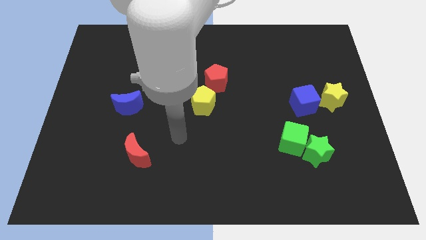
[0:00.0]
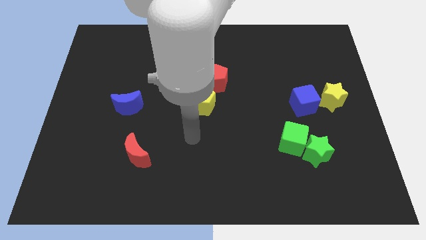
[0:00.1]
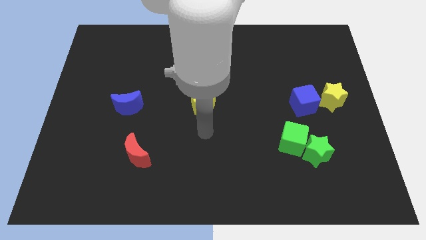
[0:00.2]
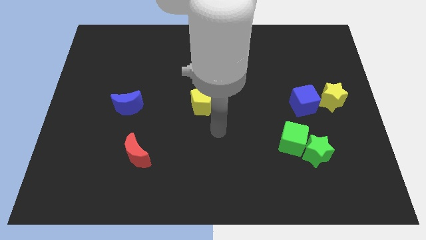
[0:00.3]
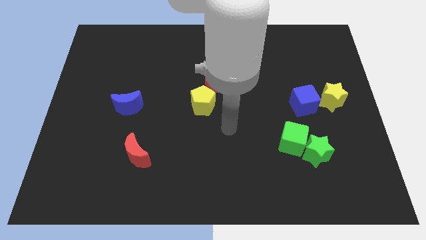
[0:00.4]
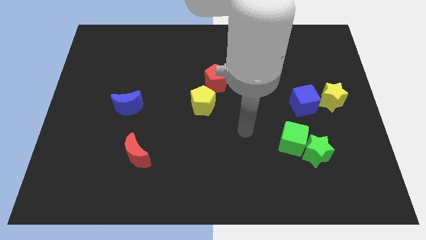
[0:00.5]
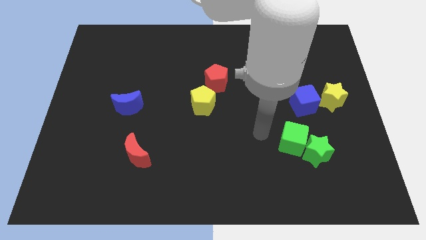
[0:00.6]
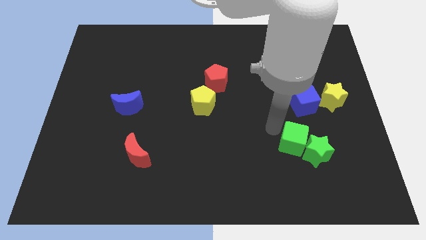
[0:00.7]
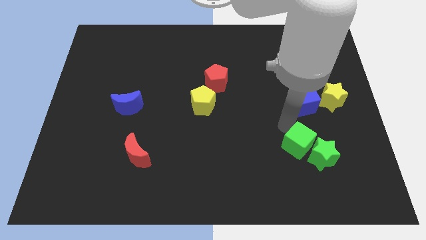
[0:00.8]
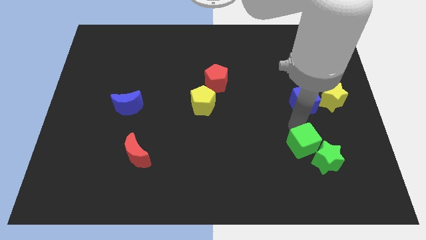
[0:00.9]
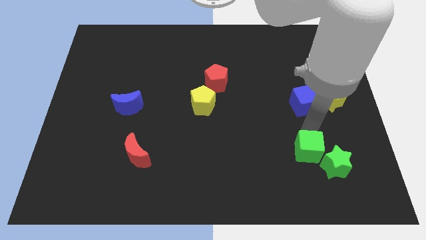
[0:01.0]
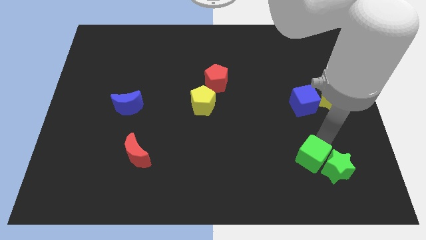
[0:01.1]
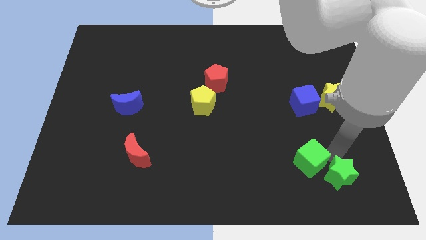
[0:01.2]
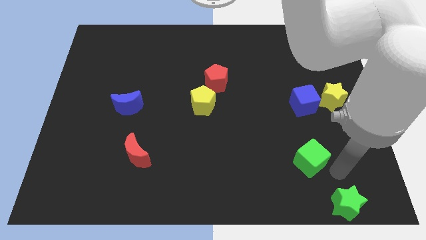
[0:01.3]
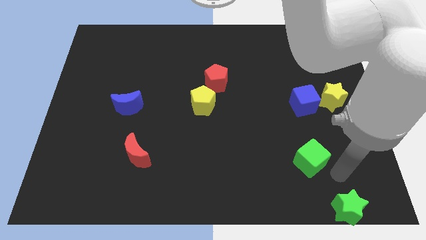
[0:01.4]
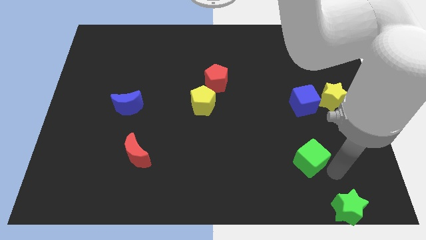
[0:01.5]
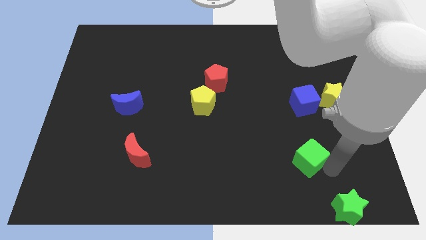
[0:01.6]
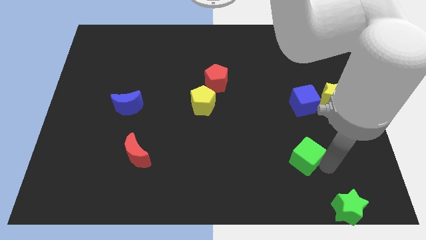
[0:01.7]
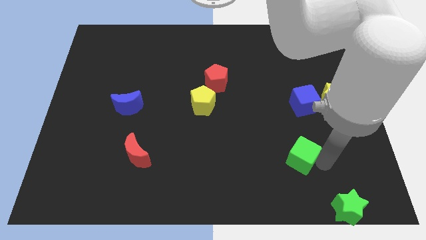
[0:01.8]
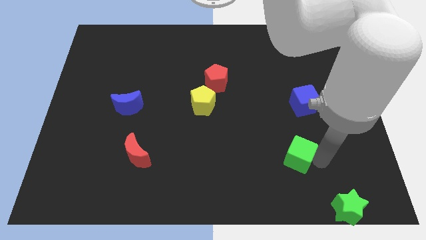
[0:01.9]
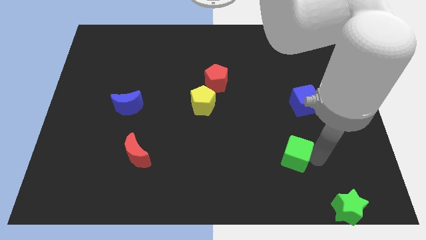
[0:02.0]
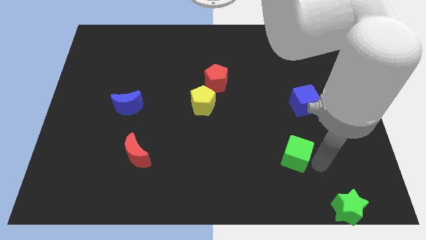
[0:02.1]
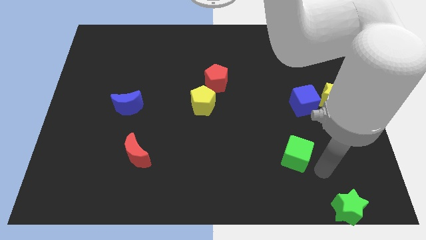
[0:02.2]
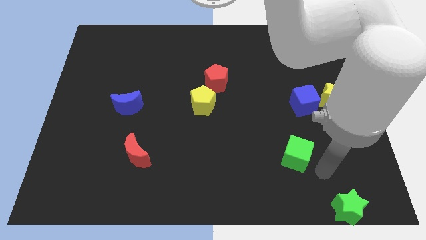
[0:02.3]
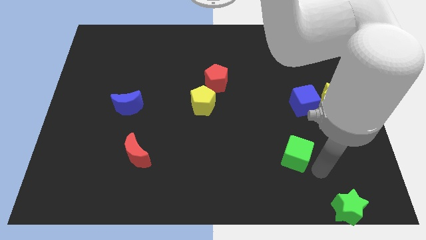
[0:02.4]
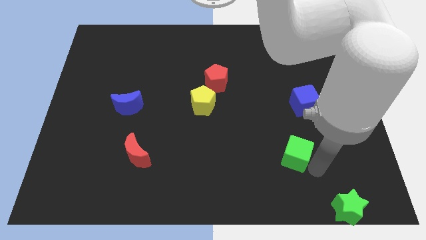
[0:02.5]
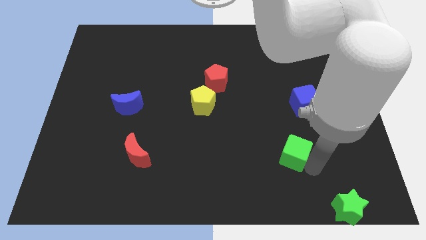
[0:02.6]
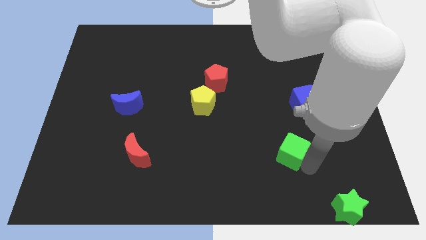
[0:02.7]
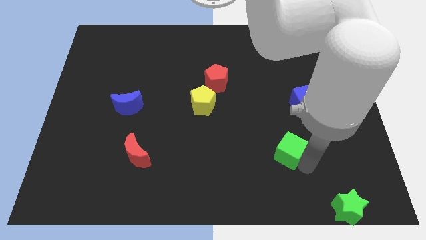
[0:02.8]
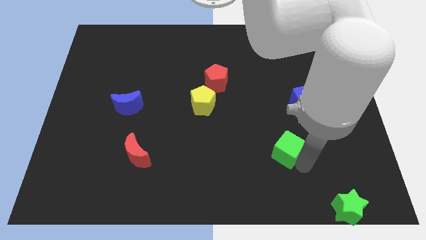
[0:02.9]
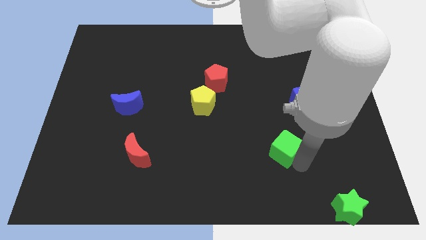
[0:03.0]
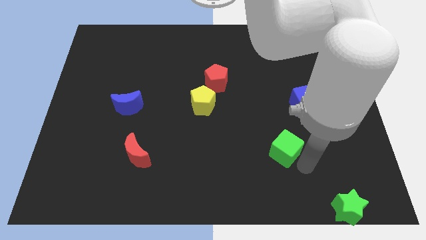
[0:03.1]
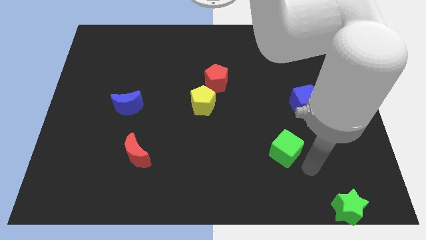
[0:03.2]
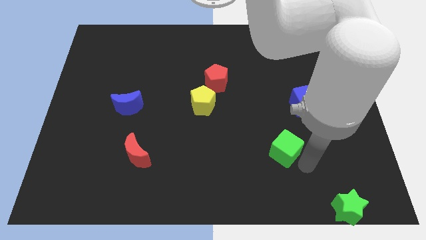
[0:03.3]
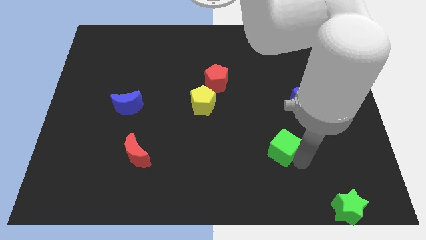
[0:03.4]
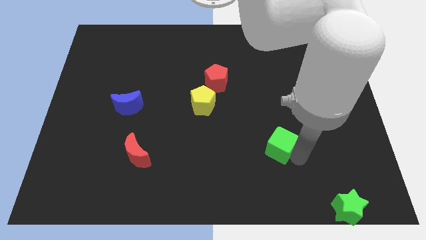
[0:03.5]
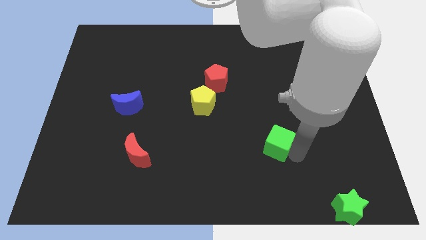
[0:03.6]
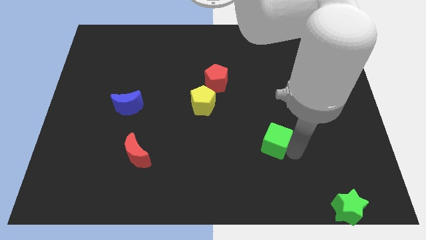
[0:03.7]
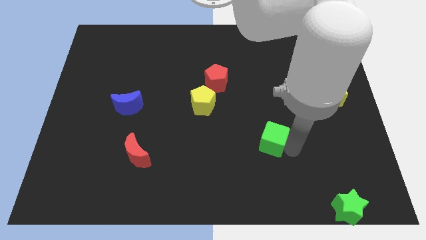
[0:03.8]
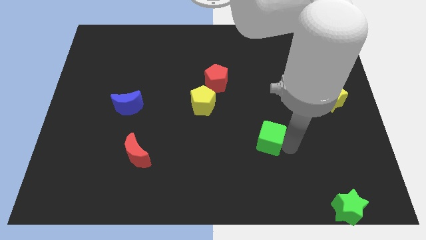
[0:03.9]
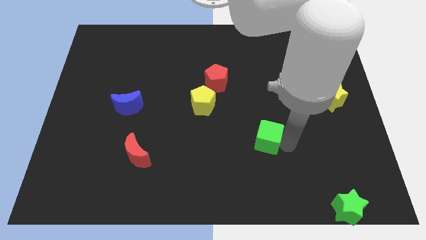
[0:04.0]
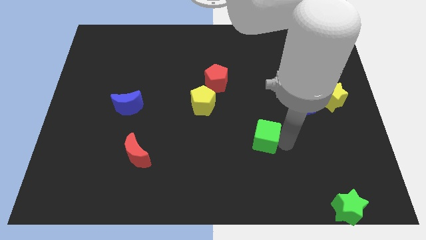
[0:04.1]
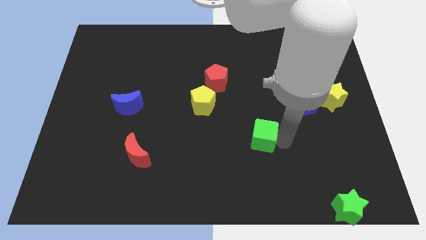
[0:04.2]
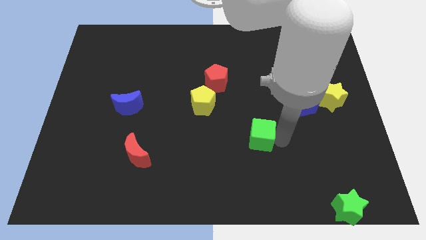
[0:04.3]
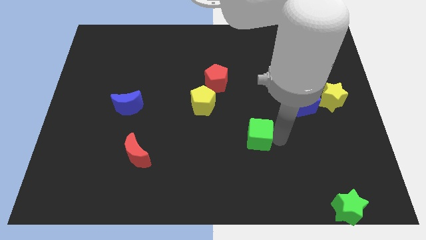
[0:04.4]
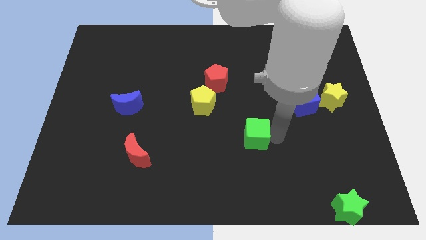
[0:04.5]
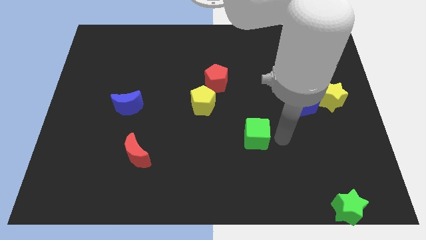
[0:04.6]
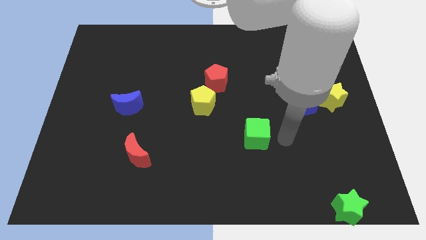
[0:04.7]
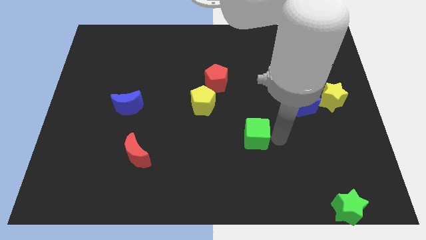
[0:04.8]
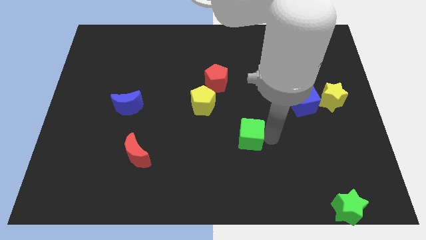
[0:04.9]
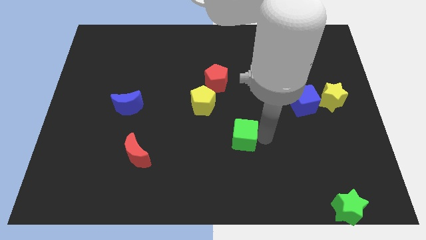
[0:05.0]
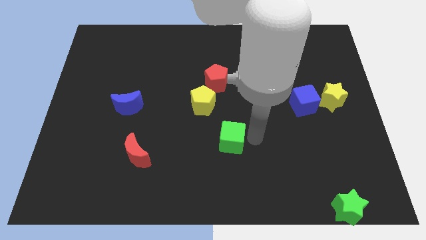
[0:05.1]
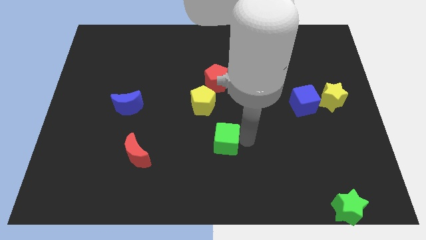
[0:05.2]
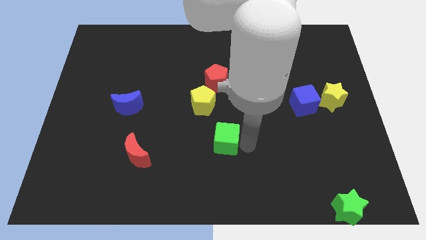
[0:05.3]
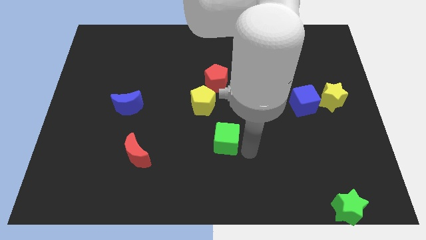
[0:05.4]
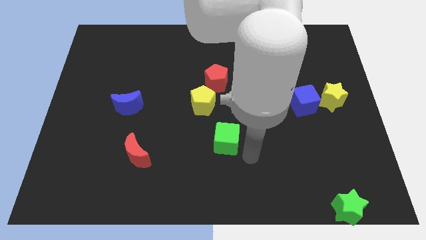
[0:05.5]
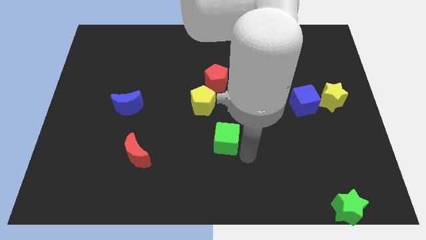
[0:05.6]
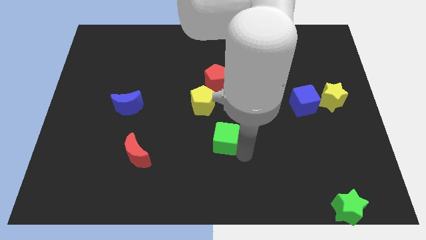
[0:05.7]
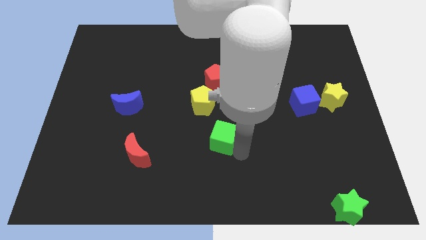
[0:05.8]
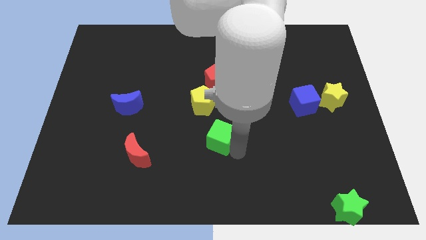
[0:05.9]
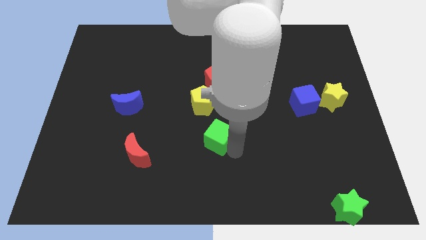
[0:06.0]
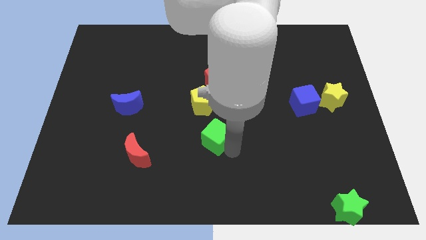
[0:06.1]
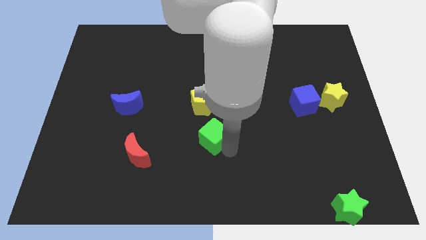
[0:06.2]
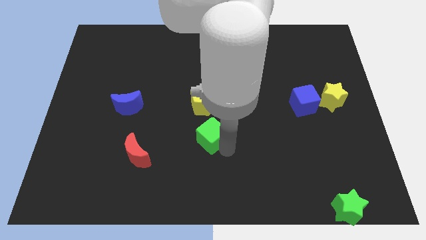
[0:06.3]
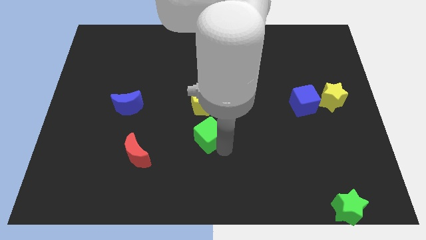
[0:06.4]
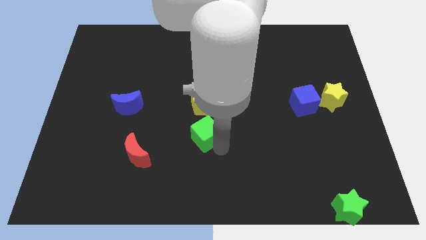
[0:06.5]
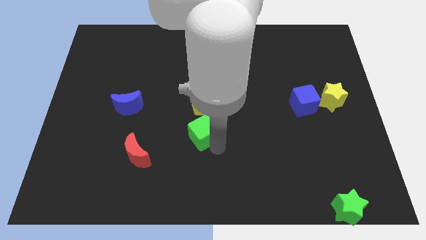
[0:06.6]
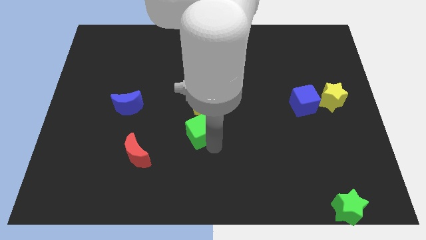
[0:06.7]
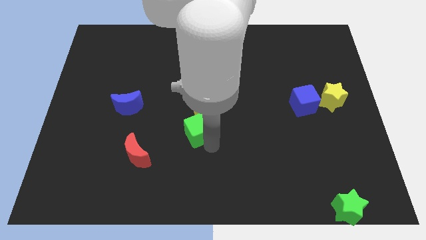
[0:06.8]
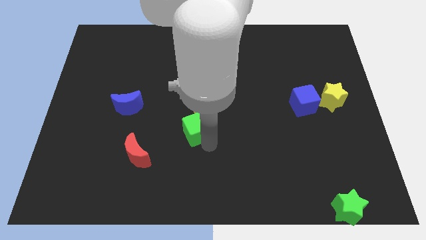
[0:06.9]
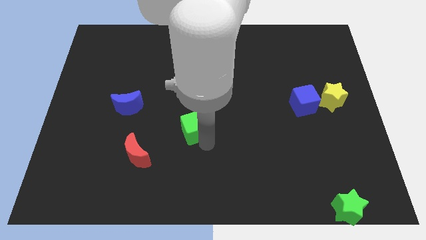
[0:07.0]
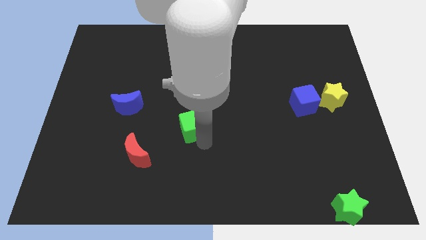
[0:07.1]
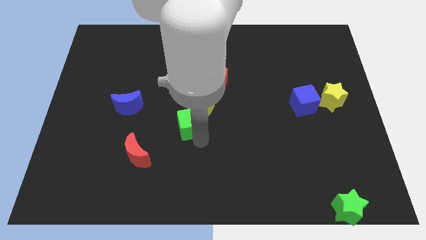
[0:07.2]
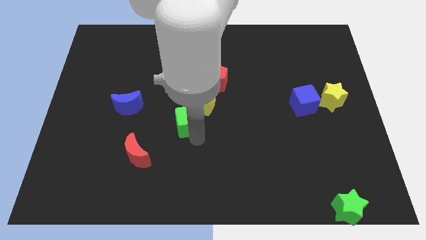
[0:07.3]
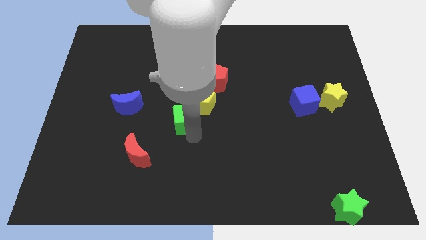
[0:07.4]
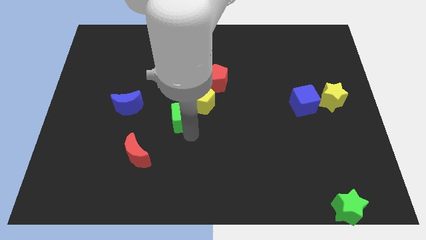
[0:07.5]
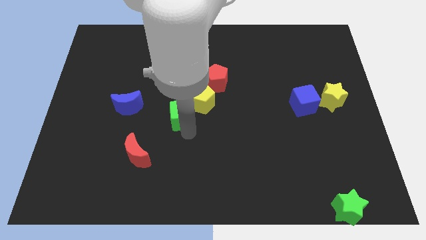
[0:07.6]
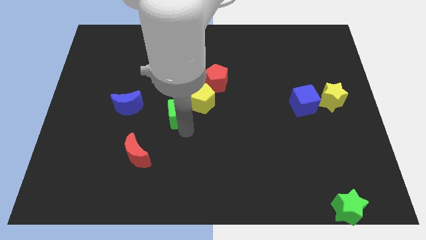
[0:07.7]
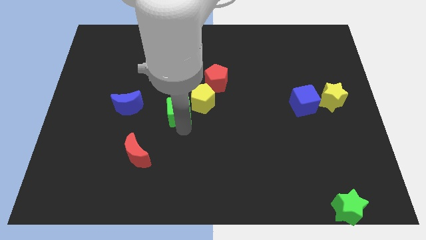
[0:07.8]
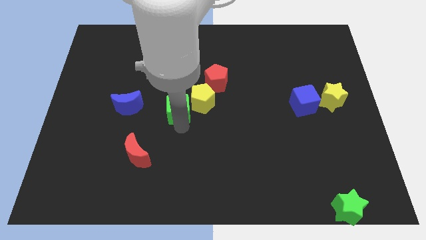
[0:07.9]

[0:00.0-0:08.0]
slide the green cube diagonally down and to the left of the red pentagon
